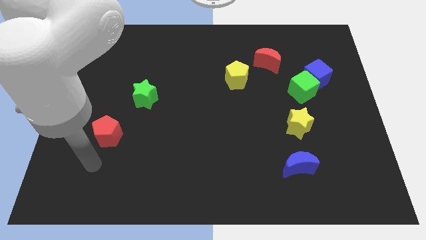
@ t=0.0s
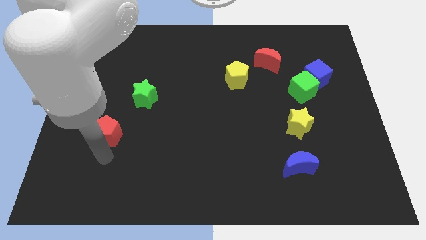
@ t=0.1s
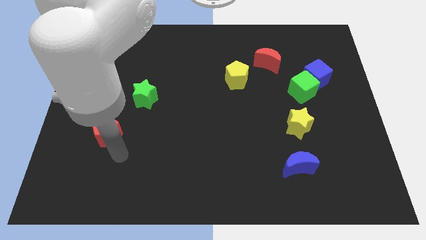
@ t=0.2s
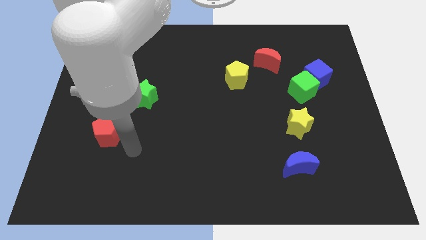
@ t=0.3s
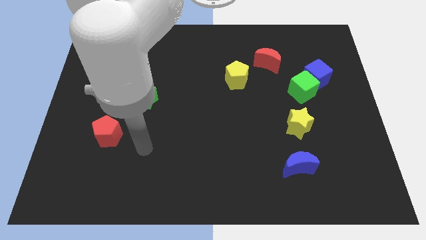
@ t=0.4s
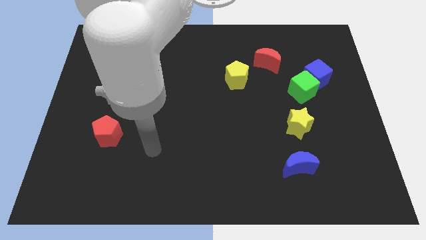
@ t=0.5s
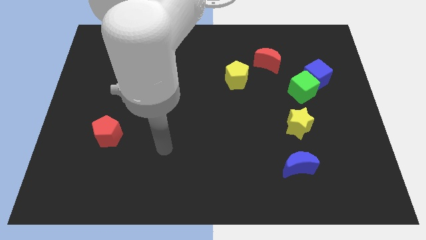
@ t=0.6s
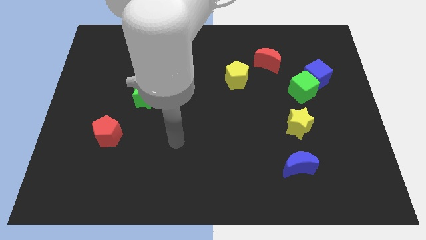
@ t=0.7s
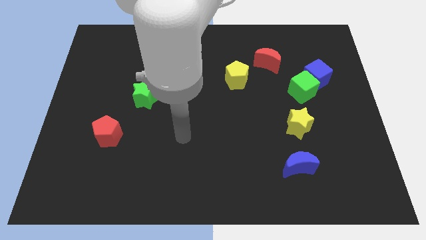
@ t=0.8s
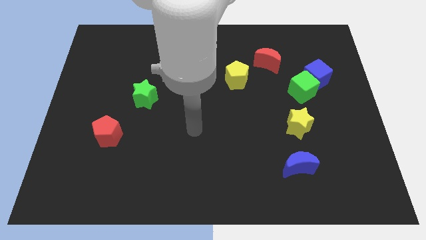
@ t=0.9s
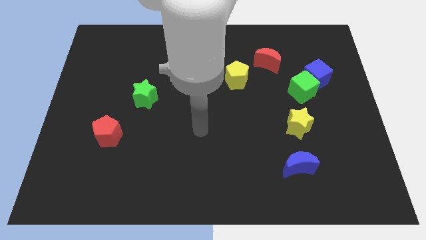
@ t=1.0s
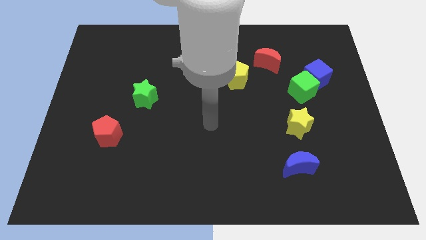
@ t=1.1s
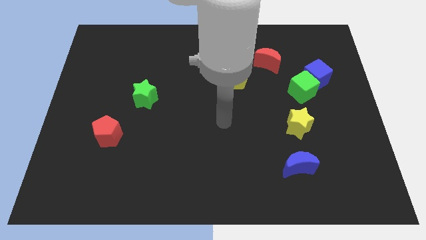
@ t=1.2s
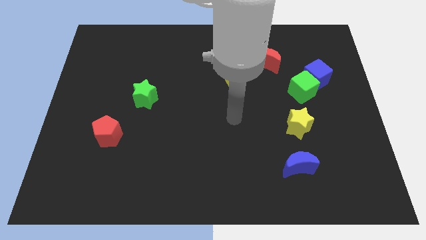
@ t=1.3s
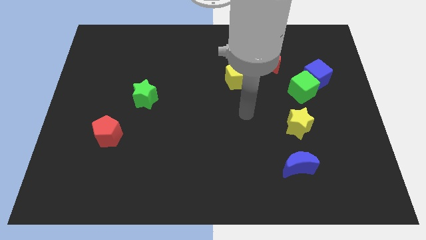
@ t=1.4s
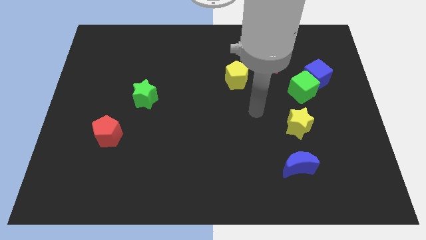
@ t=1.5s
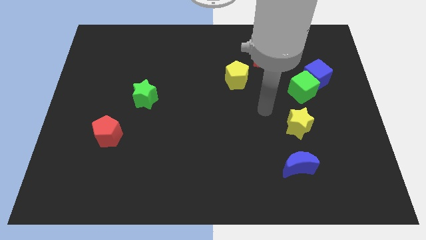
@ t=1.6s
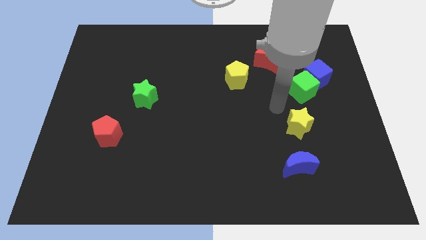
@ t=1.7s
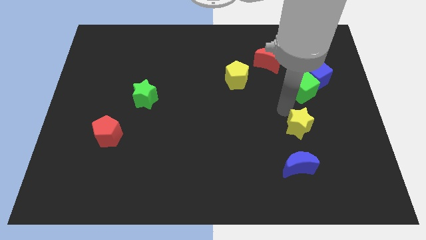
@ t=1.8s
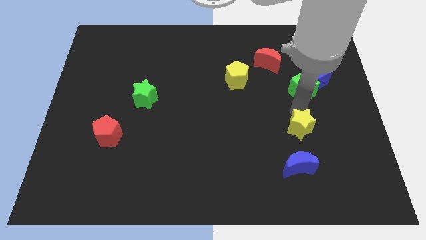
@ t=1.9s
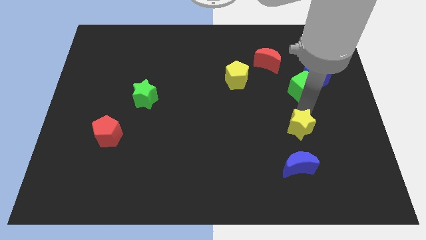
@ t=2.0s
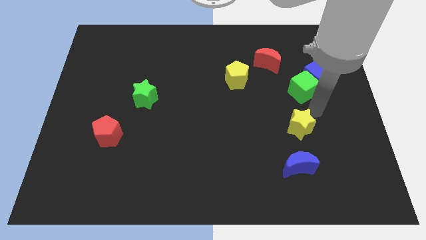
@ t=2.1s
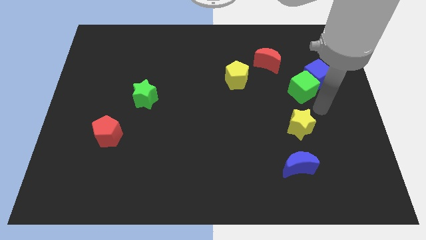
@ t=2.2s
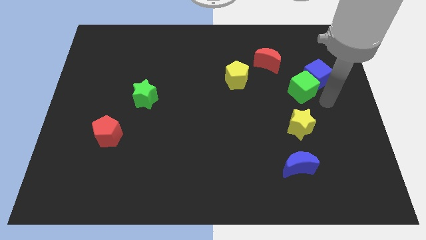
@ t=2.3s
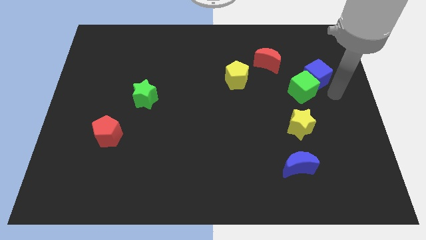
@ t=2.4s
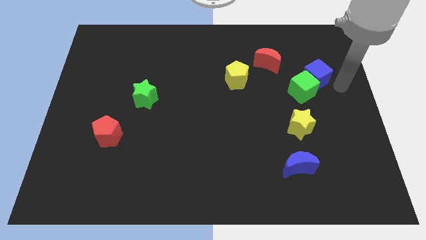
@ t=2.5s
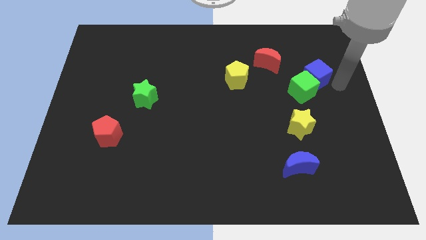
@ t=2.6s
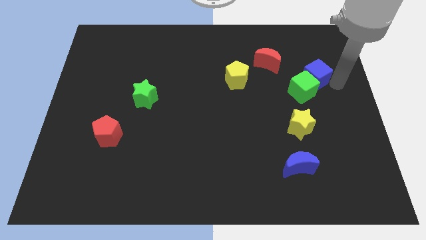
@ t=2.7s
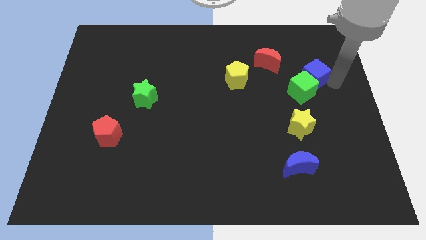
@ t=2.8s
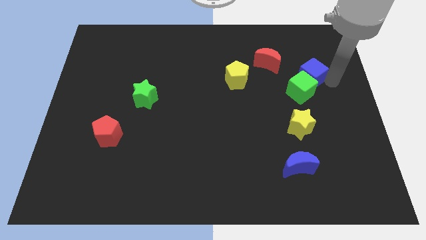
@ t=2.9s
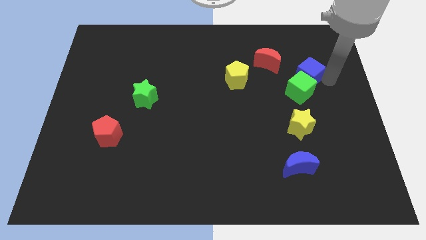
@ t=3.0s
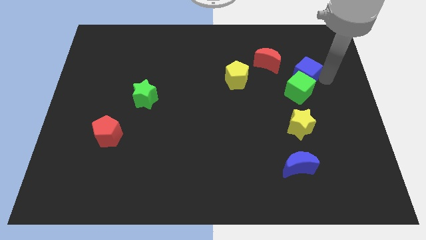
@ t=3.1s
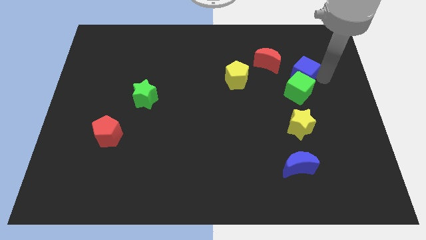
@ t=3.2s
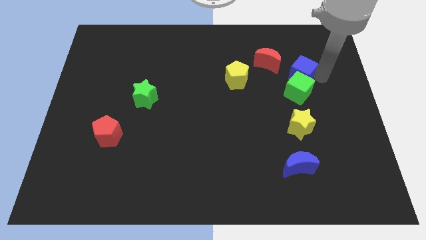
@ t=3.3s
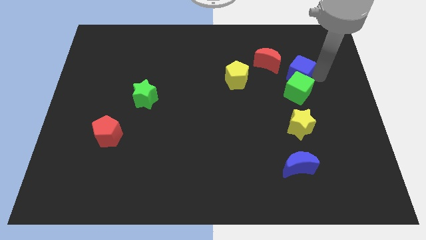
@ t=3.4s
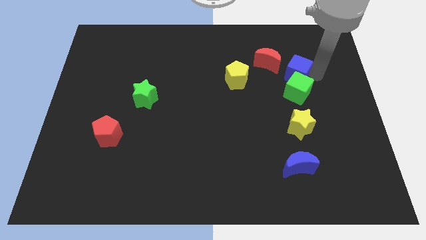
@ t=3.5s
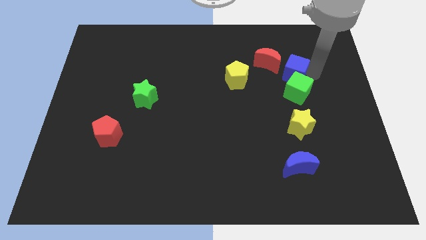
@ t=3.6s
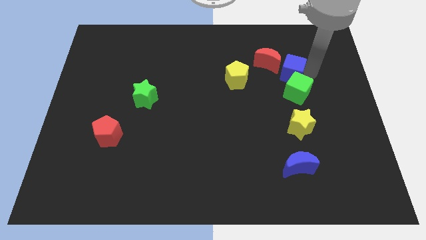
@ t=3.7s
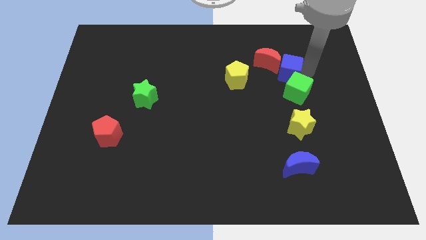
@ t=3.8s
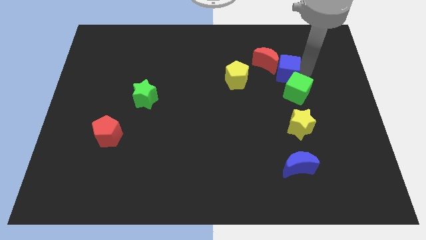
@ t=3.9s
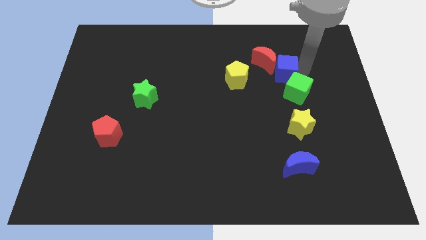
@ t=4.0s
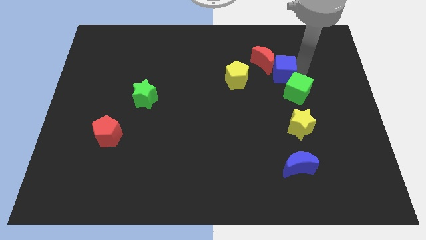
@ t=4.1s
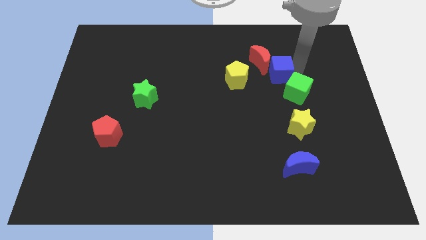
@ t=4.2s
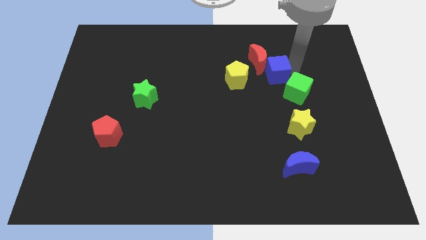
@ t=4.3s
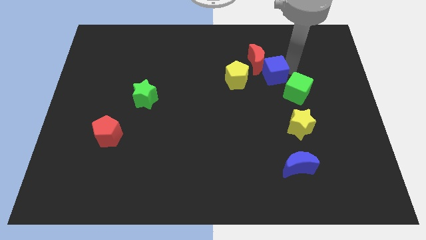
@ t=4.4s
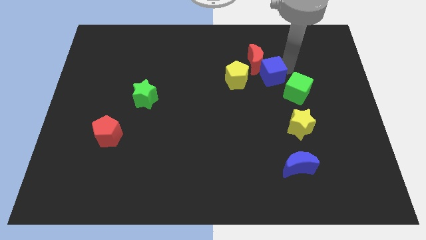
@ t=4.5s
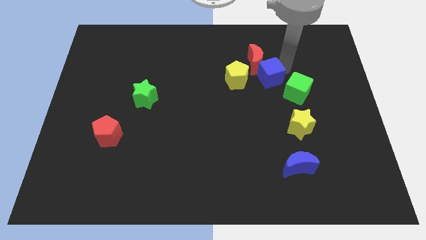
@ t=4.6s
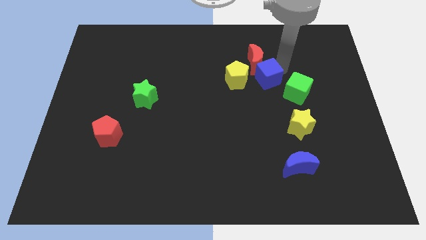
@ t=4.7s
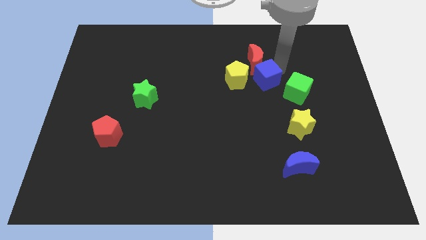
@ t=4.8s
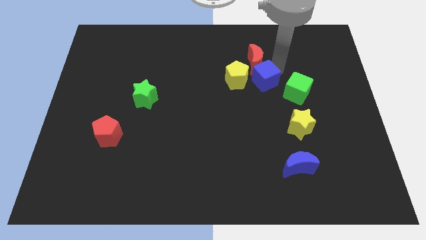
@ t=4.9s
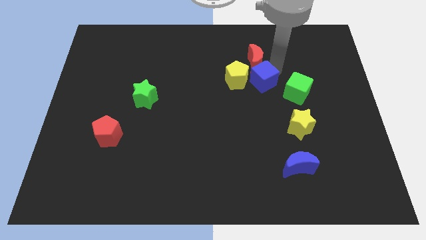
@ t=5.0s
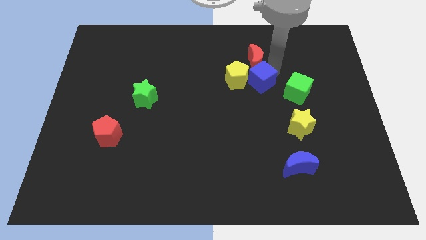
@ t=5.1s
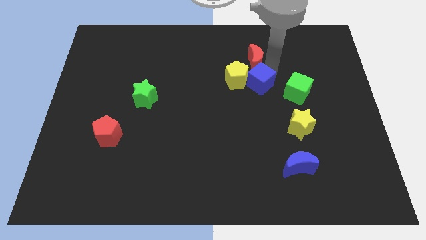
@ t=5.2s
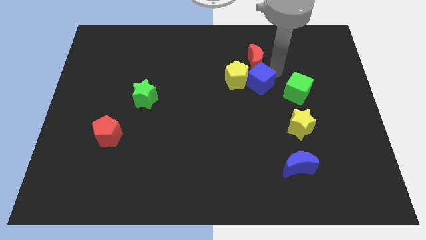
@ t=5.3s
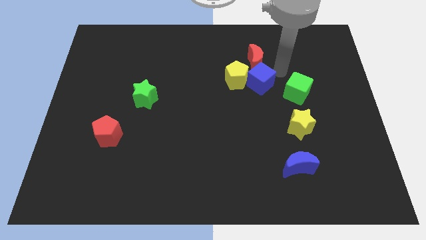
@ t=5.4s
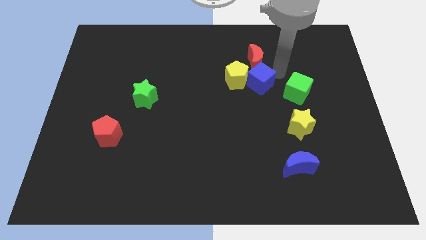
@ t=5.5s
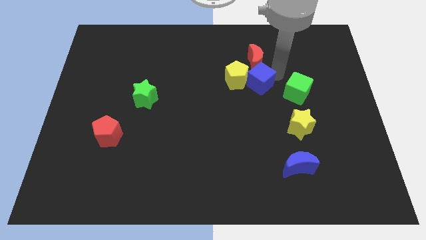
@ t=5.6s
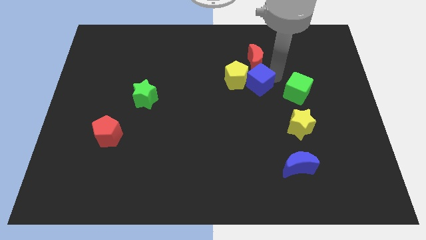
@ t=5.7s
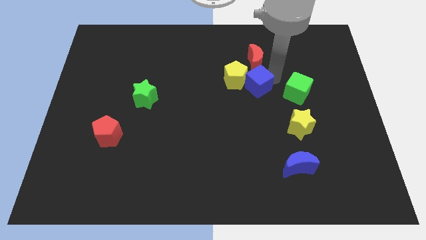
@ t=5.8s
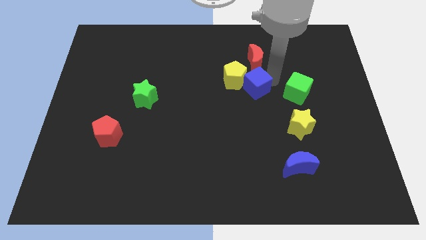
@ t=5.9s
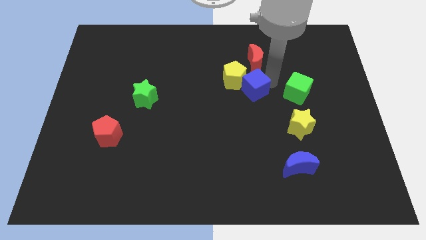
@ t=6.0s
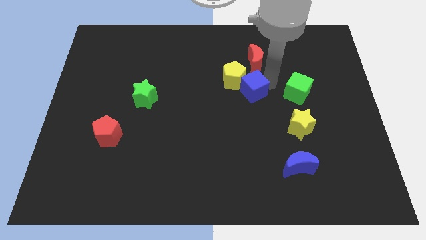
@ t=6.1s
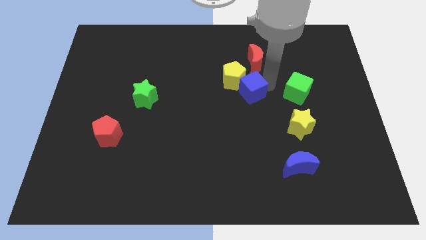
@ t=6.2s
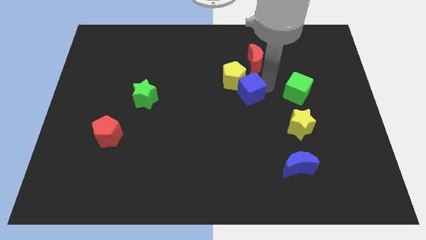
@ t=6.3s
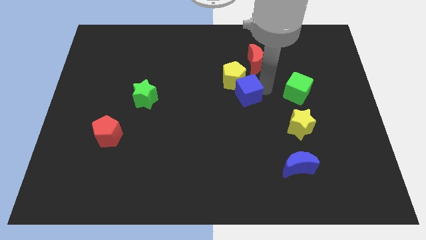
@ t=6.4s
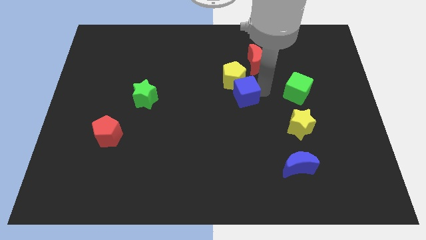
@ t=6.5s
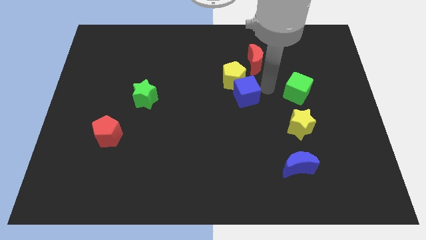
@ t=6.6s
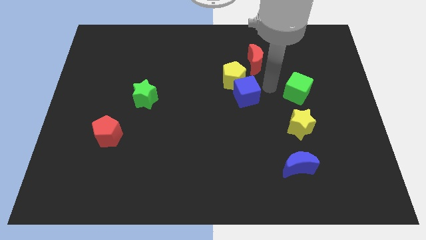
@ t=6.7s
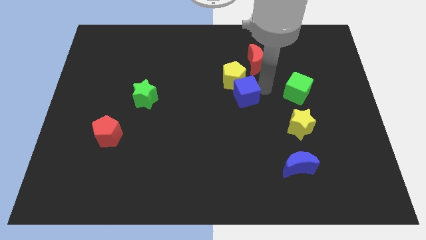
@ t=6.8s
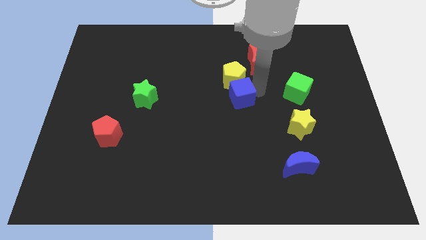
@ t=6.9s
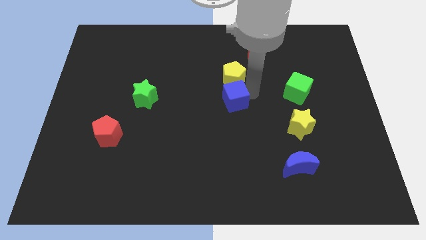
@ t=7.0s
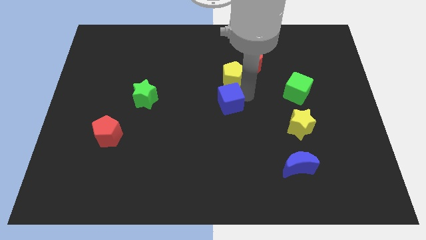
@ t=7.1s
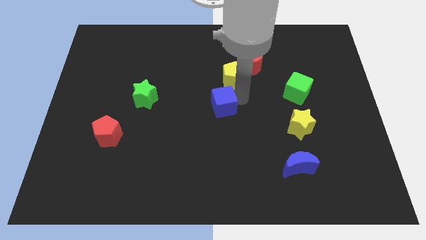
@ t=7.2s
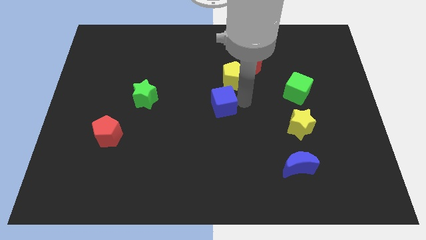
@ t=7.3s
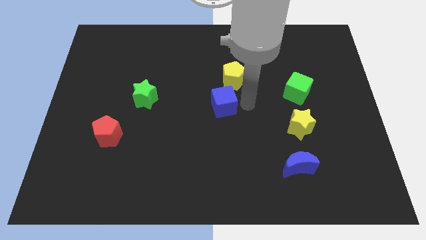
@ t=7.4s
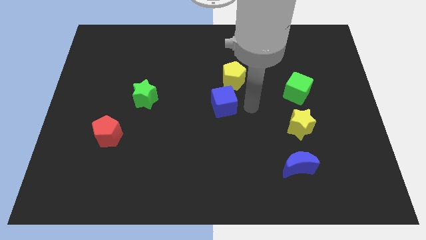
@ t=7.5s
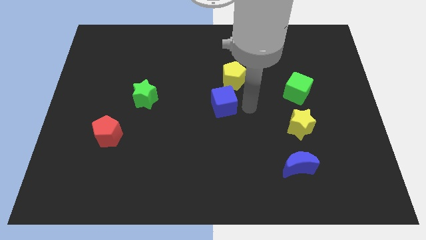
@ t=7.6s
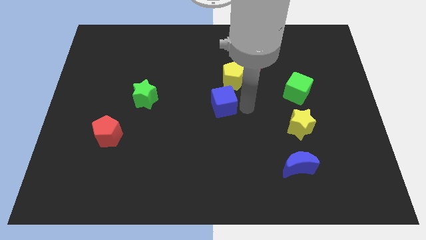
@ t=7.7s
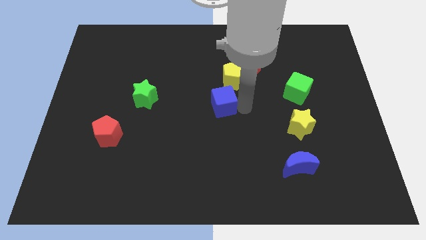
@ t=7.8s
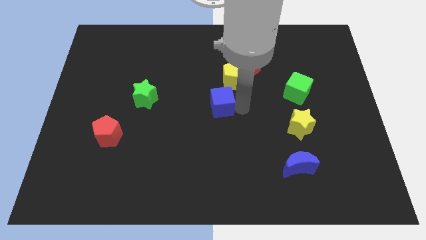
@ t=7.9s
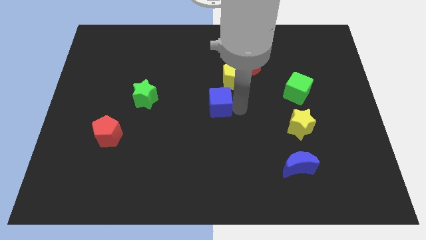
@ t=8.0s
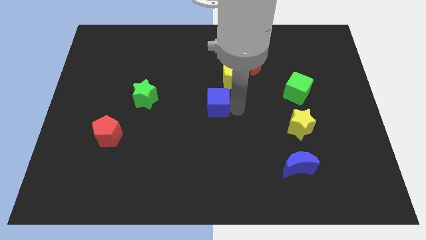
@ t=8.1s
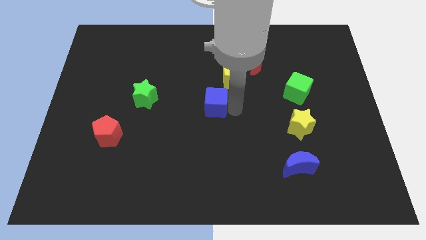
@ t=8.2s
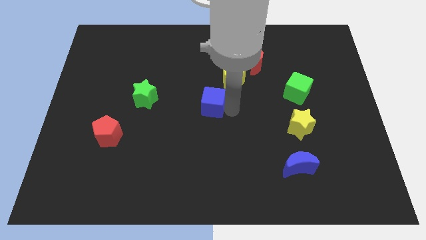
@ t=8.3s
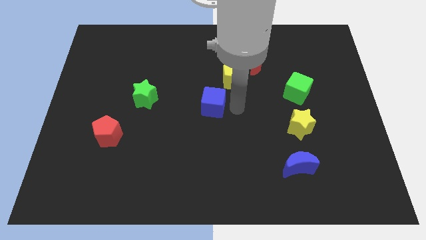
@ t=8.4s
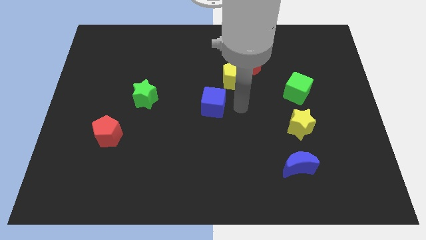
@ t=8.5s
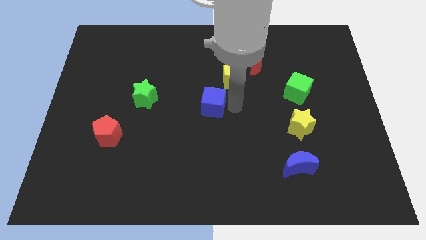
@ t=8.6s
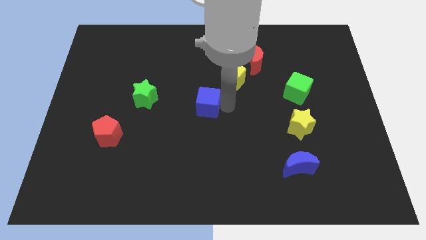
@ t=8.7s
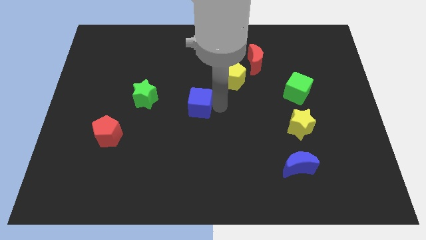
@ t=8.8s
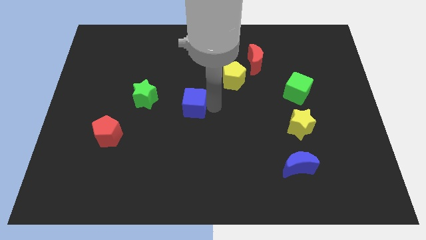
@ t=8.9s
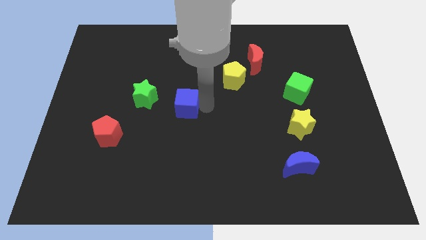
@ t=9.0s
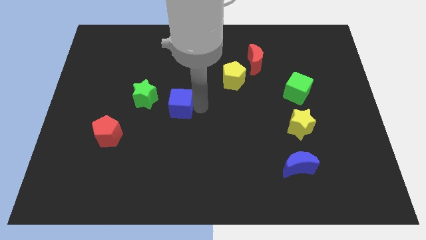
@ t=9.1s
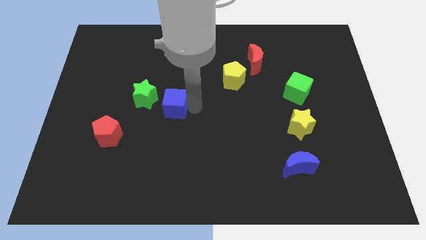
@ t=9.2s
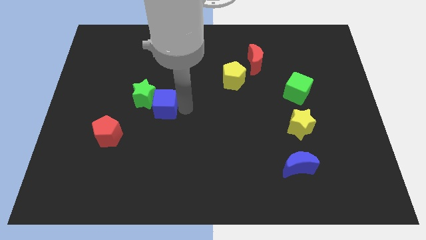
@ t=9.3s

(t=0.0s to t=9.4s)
slide the blue cube next to the green star
